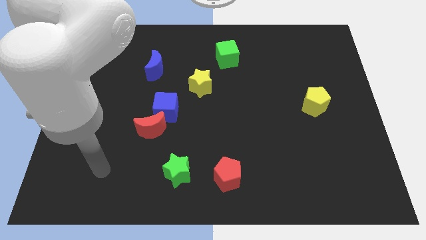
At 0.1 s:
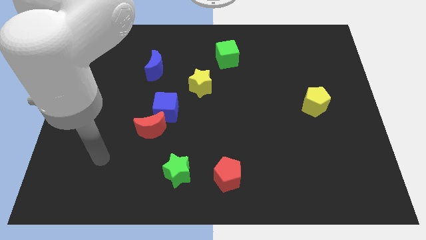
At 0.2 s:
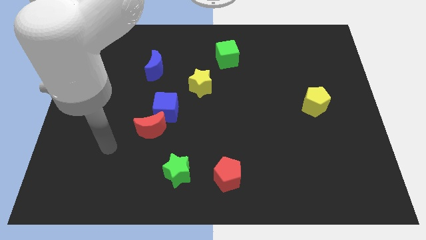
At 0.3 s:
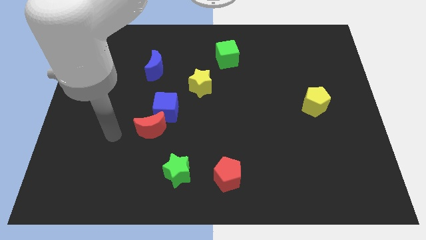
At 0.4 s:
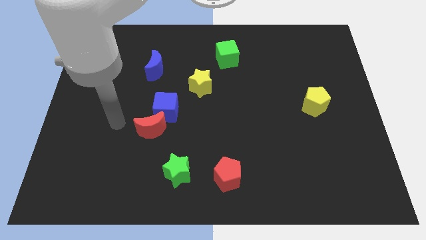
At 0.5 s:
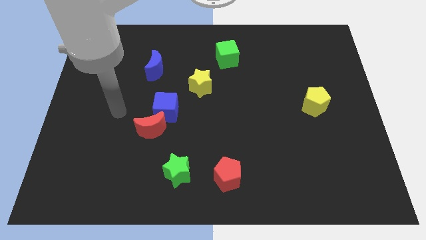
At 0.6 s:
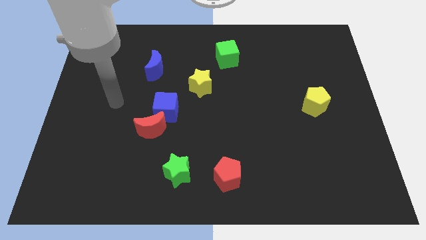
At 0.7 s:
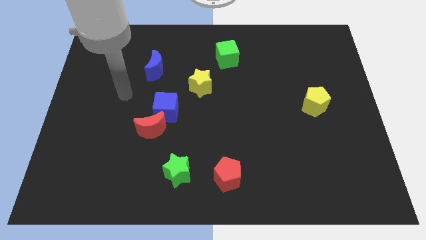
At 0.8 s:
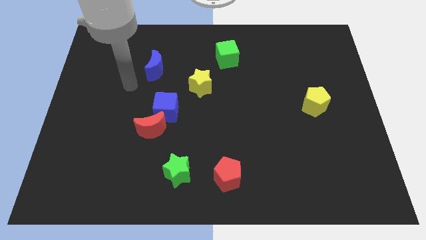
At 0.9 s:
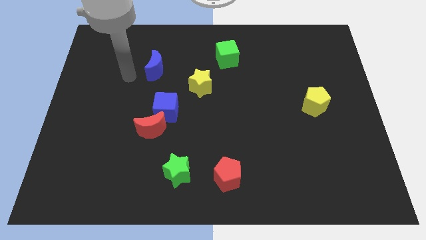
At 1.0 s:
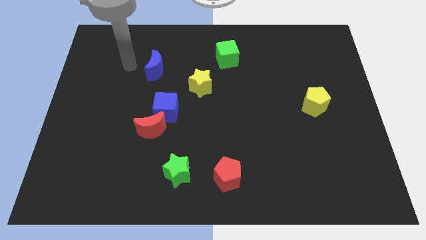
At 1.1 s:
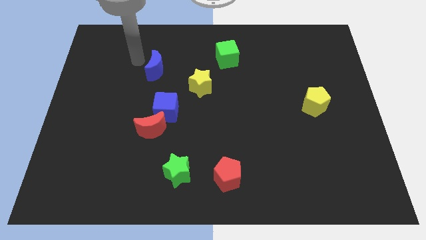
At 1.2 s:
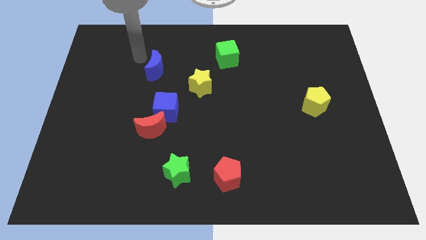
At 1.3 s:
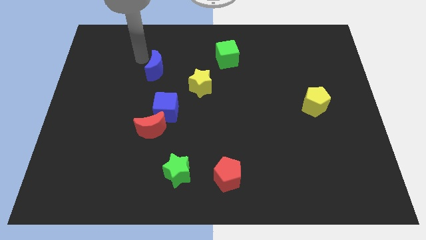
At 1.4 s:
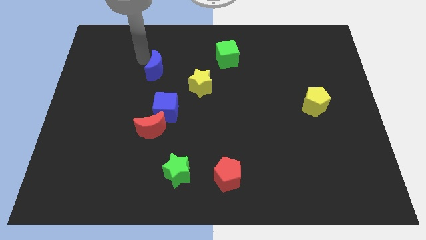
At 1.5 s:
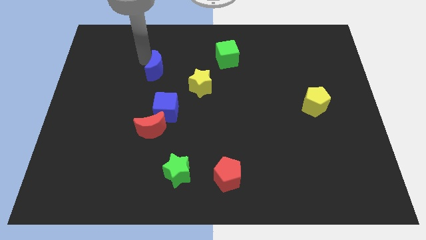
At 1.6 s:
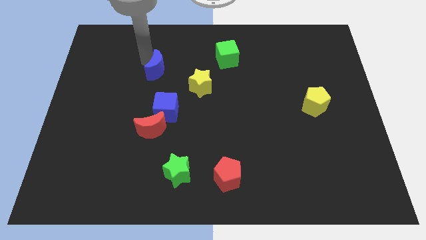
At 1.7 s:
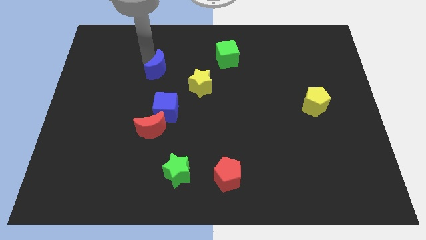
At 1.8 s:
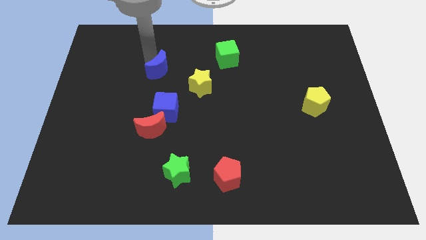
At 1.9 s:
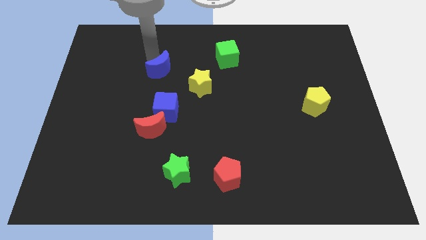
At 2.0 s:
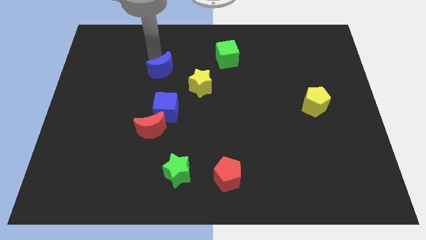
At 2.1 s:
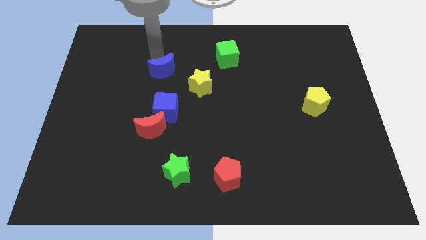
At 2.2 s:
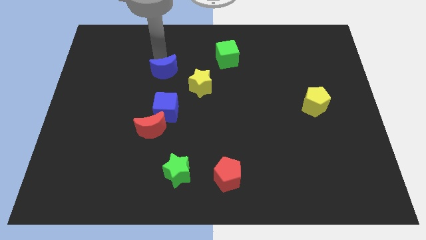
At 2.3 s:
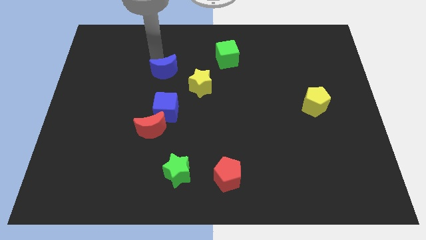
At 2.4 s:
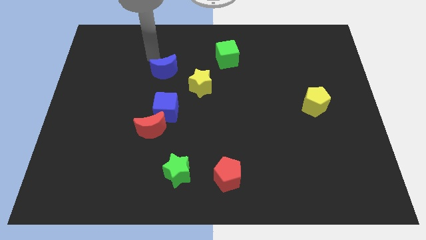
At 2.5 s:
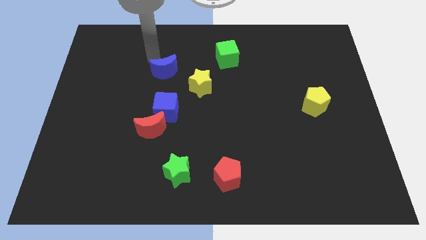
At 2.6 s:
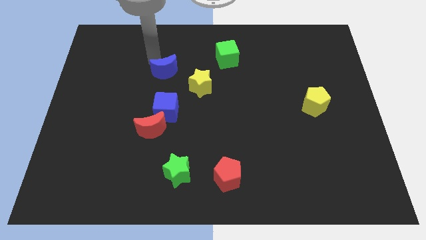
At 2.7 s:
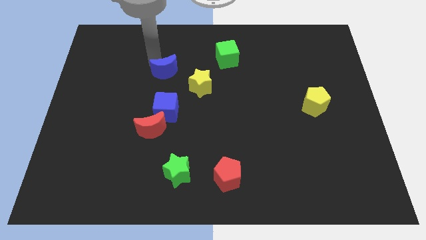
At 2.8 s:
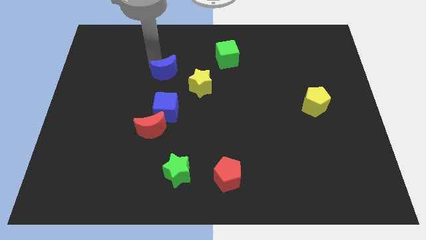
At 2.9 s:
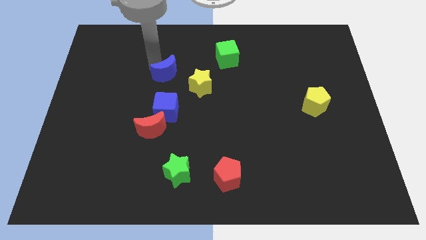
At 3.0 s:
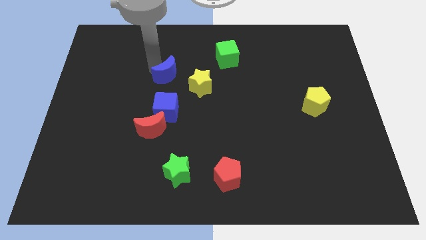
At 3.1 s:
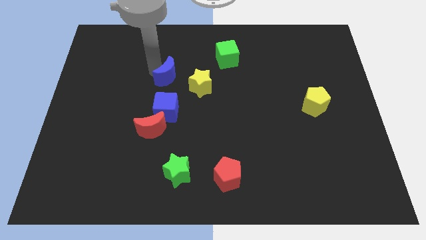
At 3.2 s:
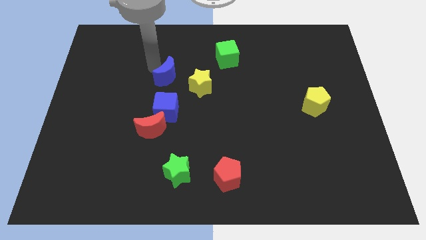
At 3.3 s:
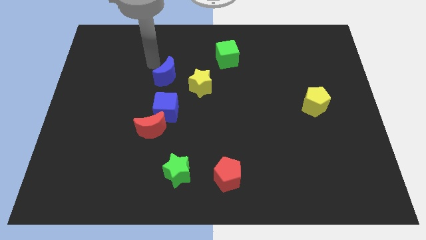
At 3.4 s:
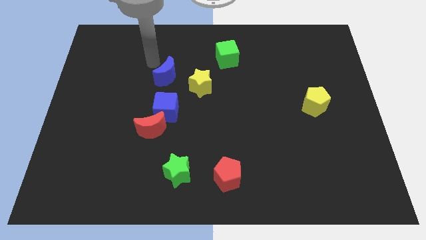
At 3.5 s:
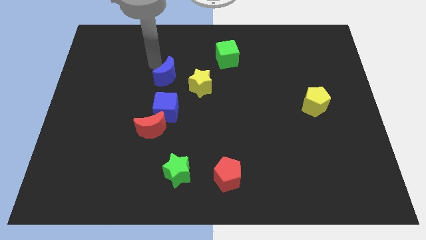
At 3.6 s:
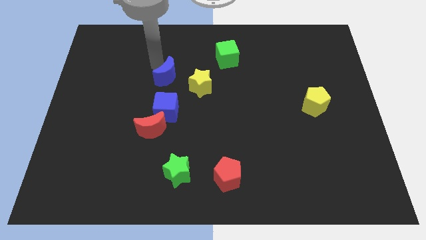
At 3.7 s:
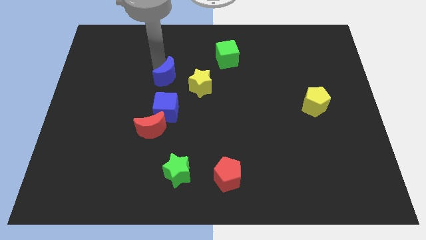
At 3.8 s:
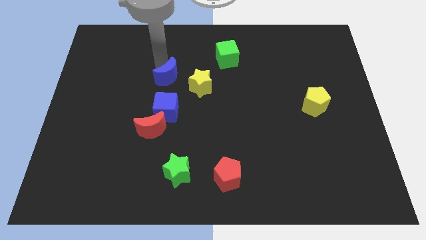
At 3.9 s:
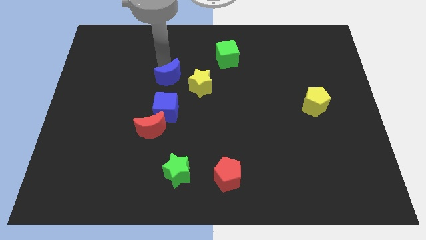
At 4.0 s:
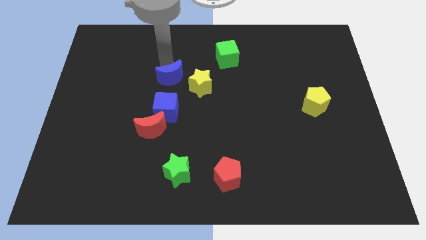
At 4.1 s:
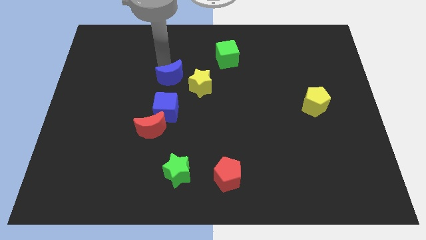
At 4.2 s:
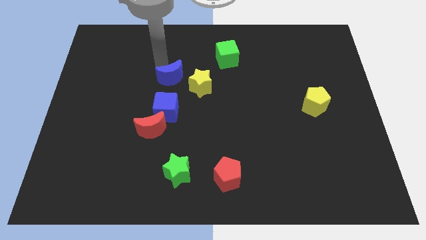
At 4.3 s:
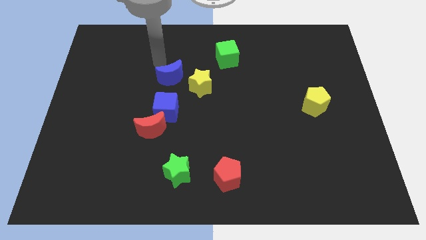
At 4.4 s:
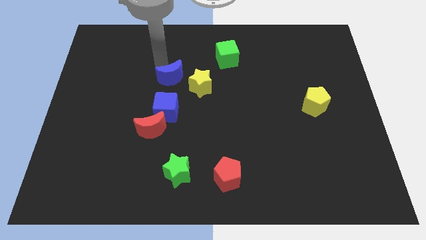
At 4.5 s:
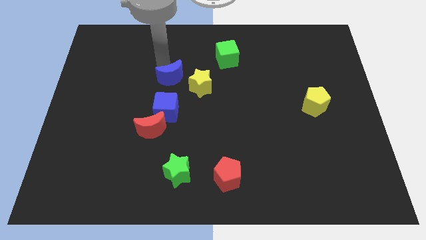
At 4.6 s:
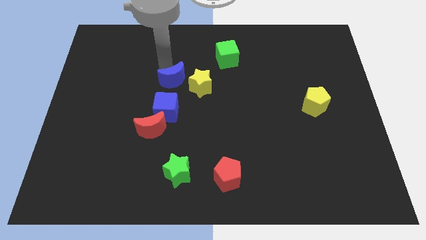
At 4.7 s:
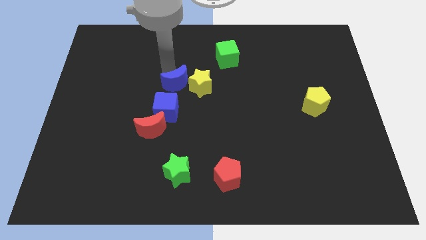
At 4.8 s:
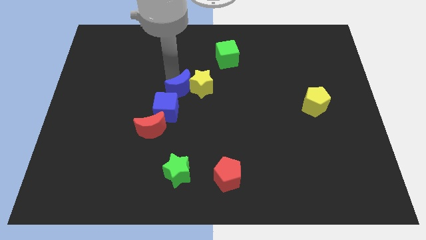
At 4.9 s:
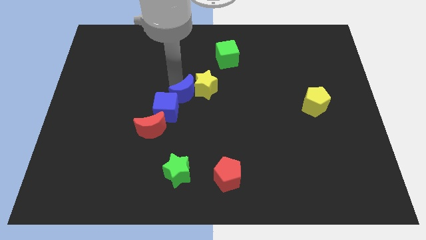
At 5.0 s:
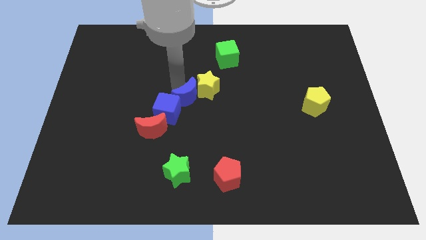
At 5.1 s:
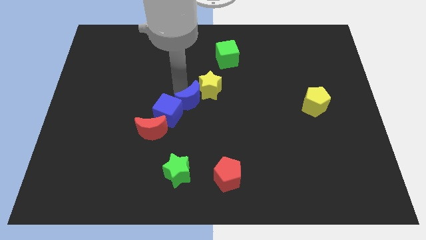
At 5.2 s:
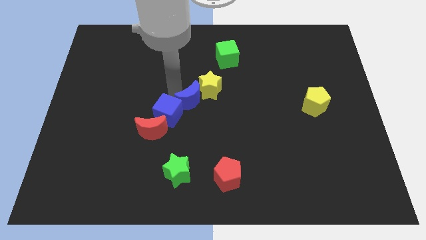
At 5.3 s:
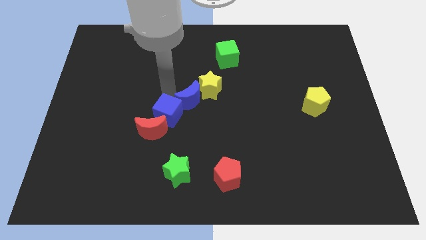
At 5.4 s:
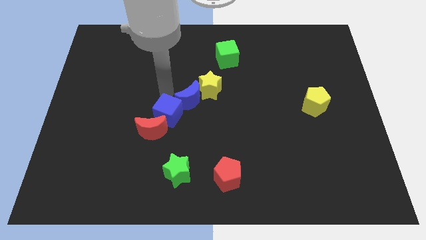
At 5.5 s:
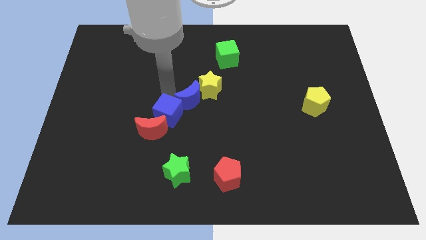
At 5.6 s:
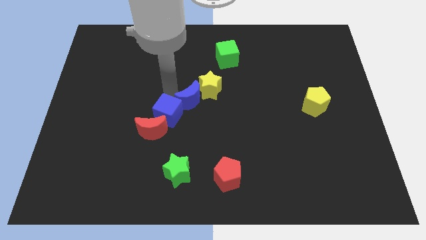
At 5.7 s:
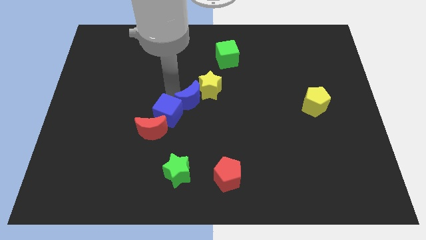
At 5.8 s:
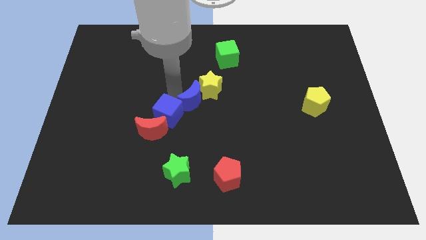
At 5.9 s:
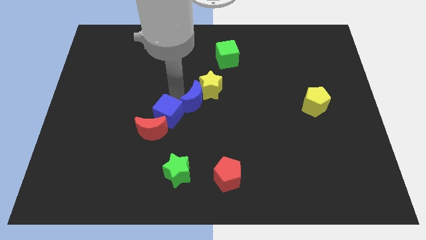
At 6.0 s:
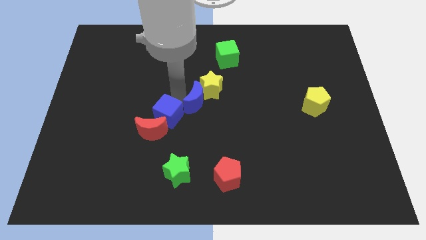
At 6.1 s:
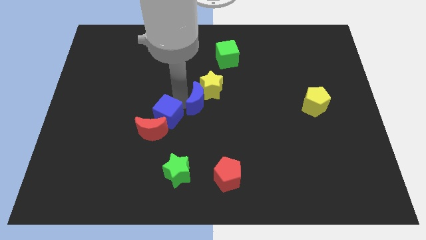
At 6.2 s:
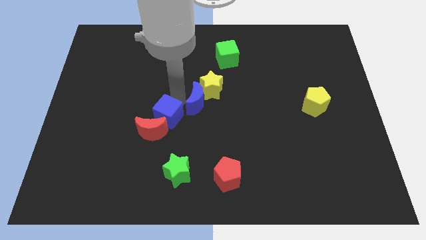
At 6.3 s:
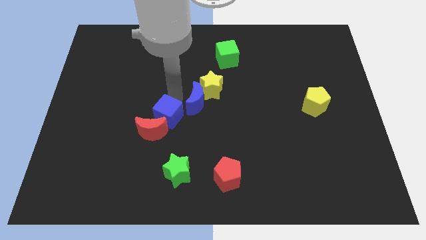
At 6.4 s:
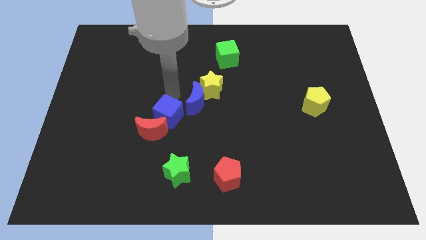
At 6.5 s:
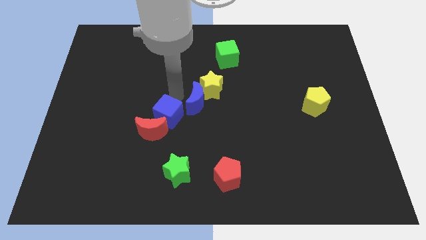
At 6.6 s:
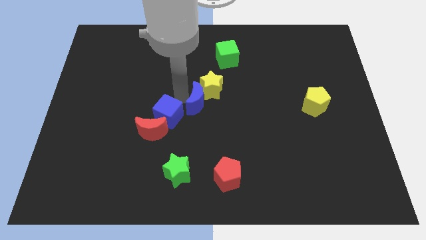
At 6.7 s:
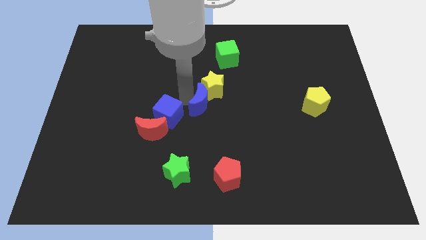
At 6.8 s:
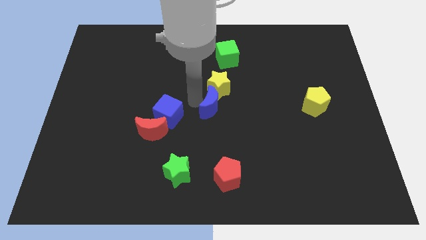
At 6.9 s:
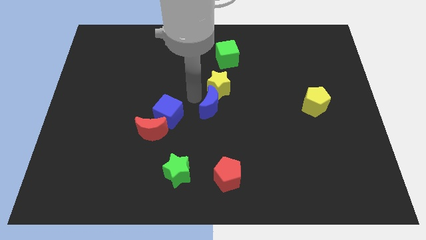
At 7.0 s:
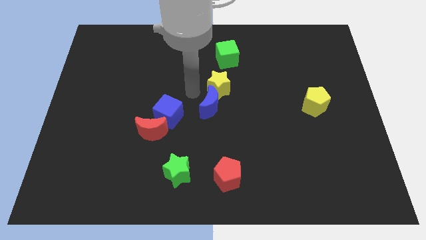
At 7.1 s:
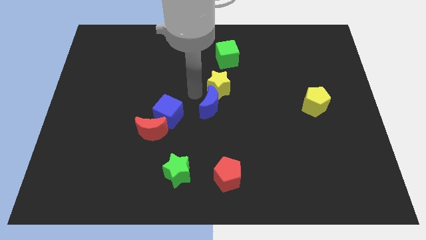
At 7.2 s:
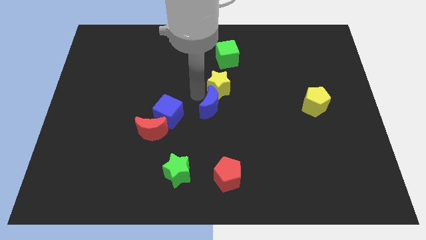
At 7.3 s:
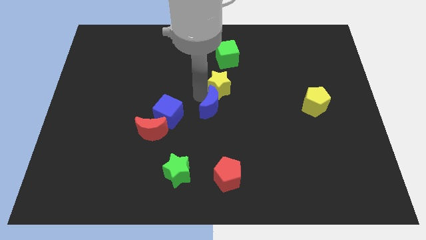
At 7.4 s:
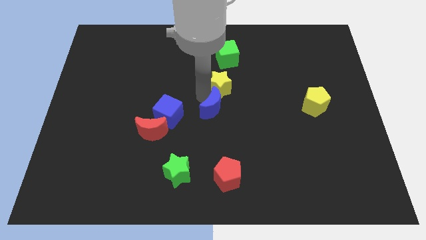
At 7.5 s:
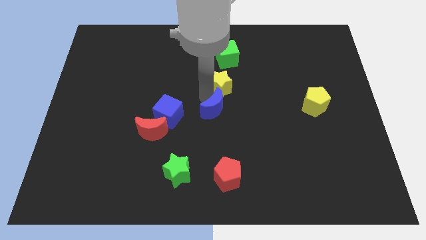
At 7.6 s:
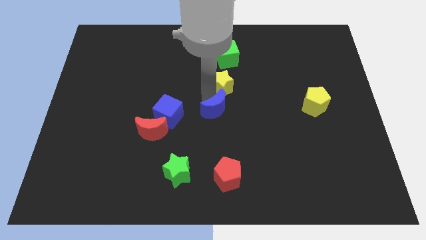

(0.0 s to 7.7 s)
slide the blue moon diagonally downwards and to the right

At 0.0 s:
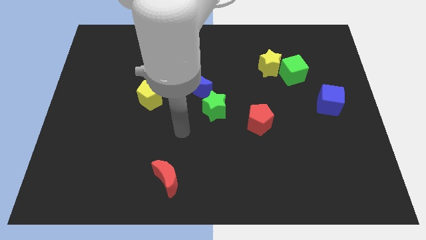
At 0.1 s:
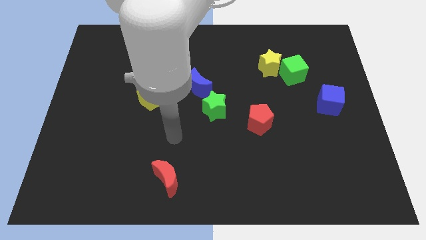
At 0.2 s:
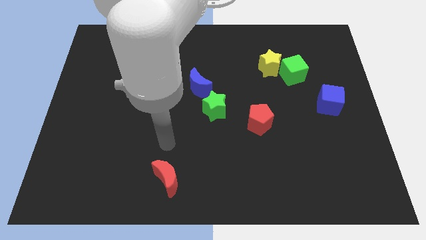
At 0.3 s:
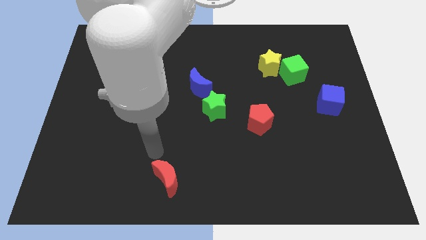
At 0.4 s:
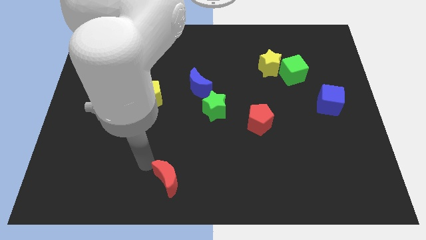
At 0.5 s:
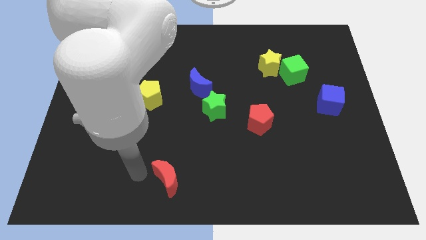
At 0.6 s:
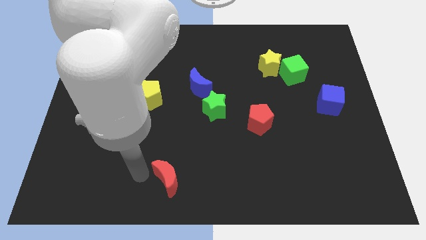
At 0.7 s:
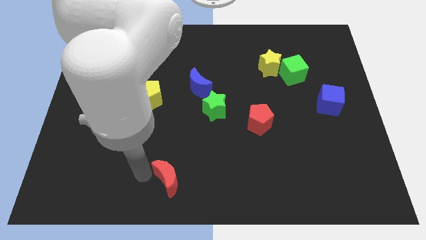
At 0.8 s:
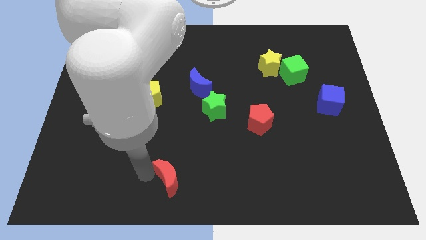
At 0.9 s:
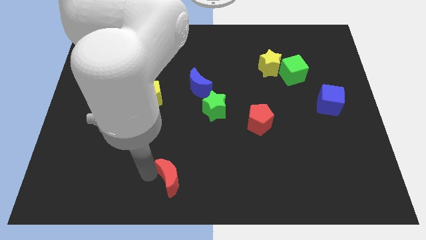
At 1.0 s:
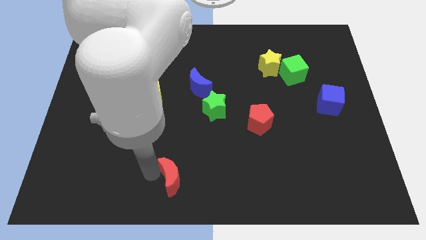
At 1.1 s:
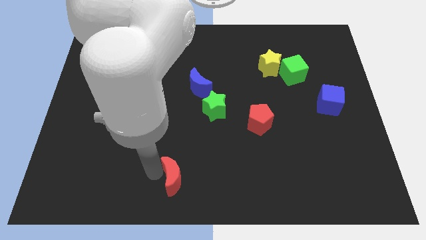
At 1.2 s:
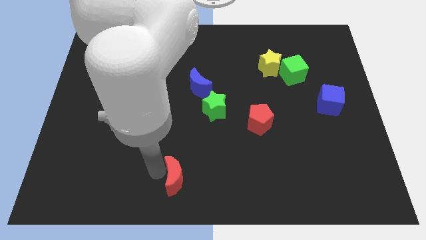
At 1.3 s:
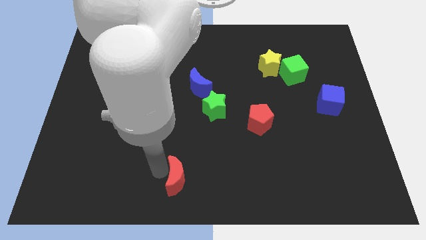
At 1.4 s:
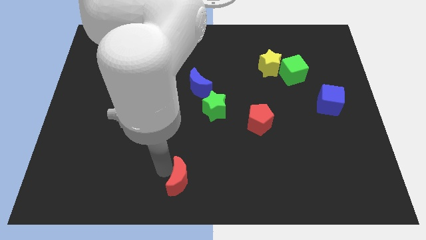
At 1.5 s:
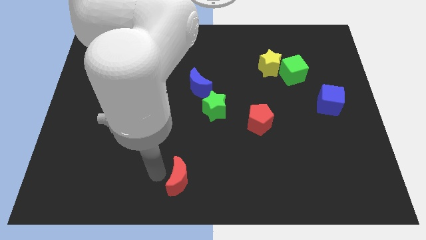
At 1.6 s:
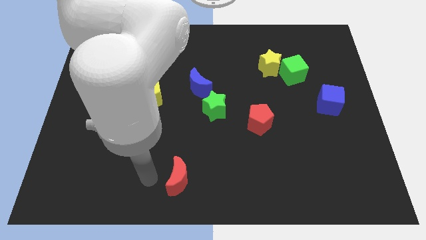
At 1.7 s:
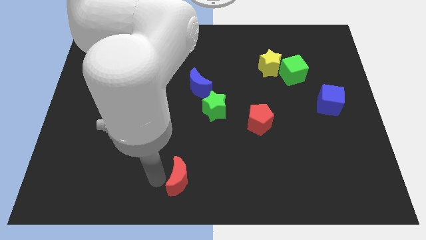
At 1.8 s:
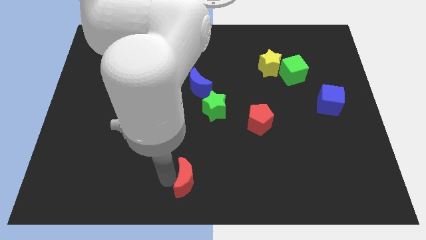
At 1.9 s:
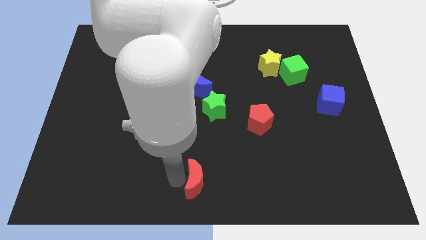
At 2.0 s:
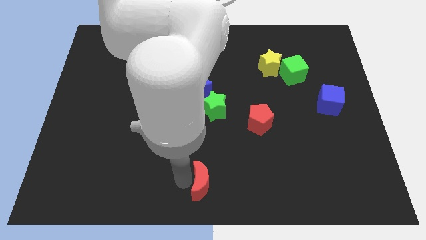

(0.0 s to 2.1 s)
slightly slide the red moon right
